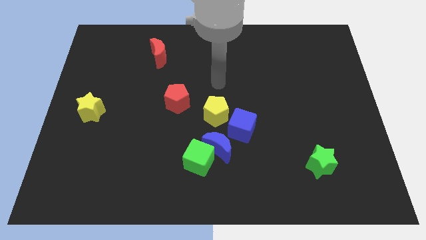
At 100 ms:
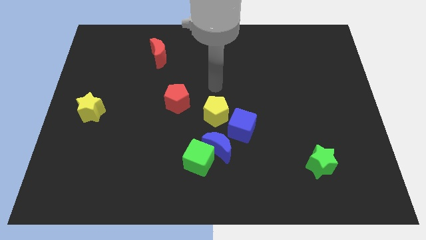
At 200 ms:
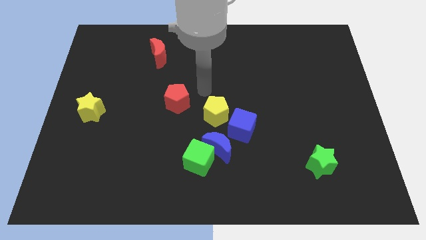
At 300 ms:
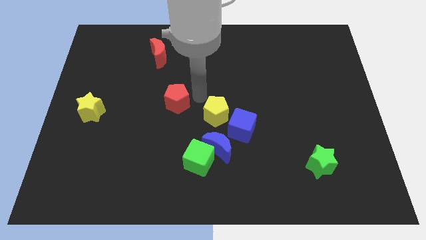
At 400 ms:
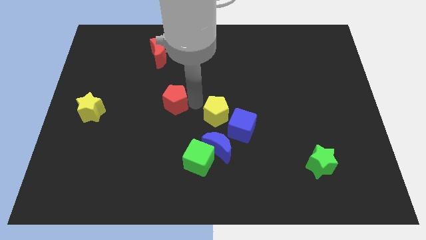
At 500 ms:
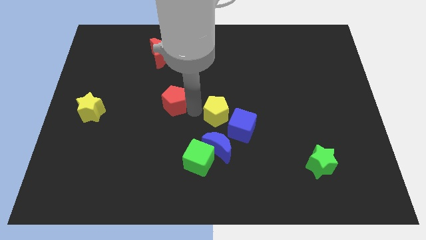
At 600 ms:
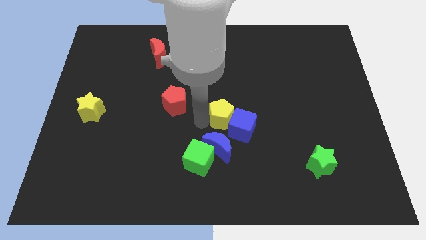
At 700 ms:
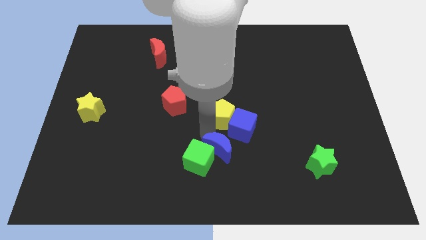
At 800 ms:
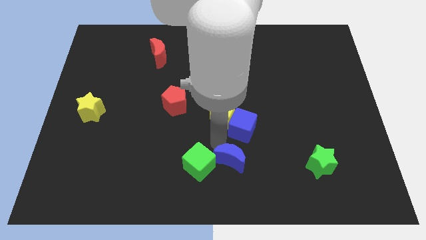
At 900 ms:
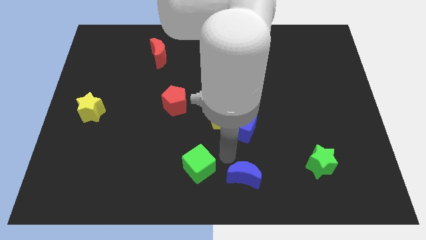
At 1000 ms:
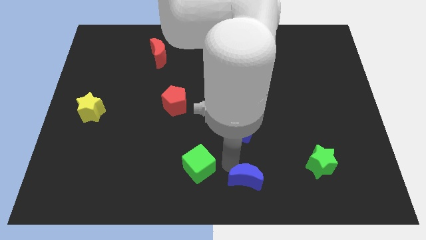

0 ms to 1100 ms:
move the green cube away from the blue moon

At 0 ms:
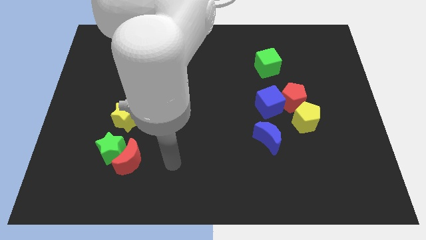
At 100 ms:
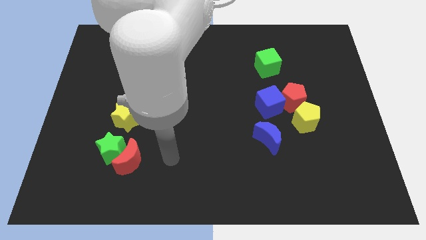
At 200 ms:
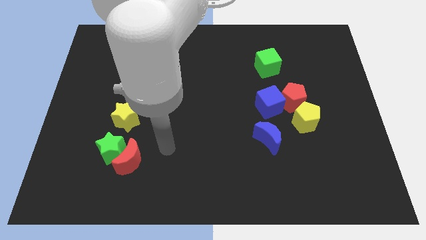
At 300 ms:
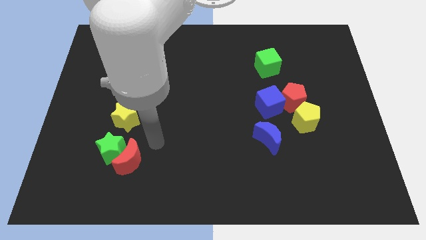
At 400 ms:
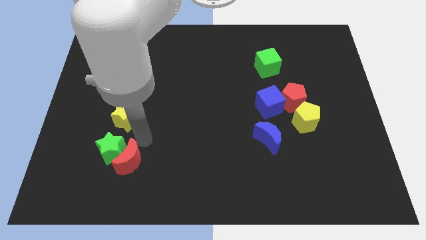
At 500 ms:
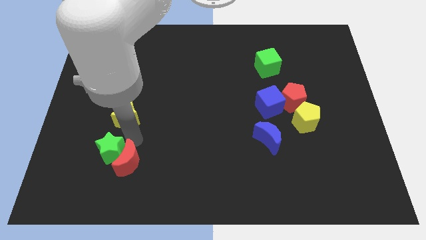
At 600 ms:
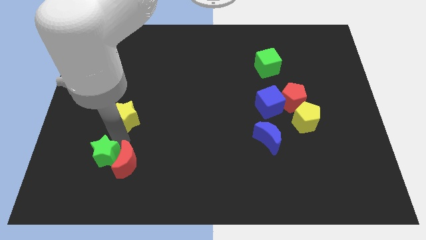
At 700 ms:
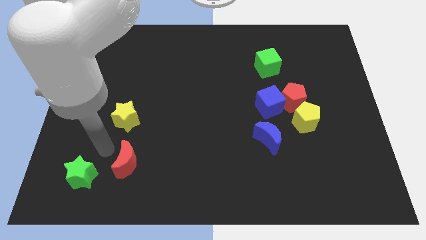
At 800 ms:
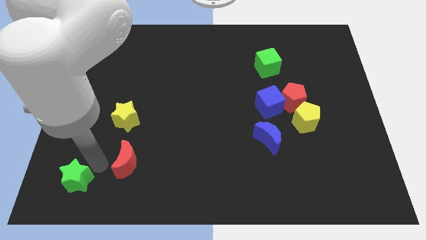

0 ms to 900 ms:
separate the red moon from the green star

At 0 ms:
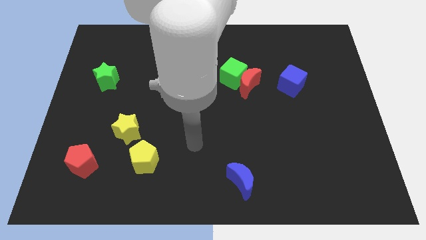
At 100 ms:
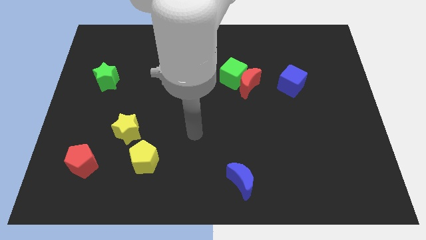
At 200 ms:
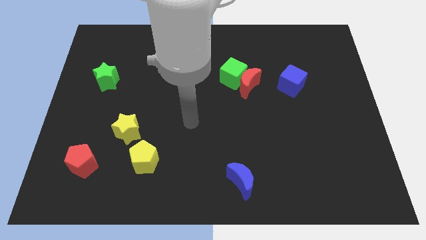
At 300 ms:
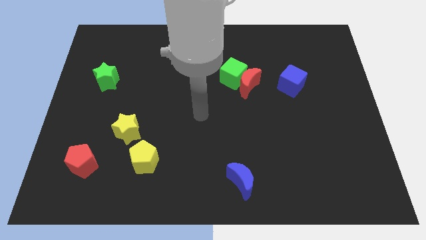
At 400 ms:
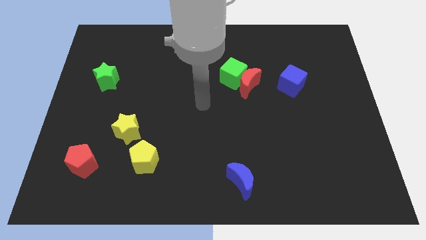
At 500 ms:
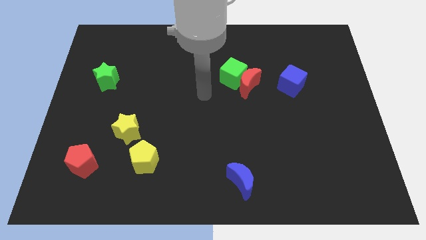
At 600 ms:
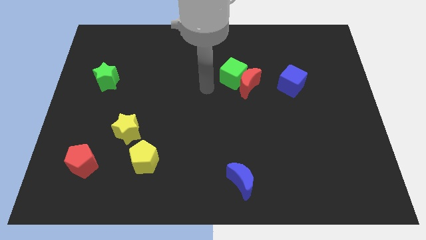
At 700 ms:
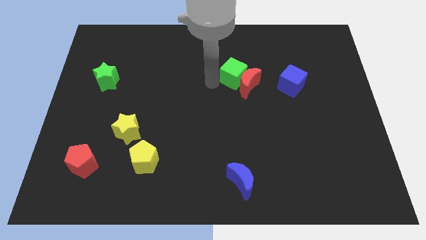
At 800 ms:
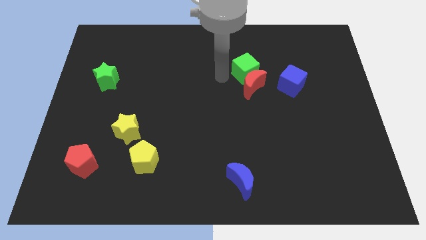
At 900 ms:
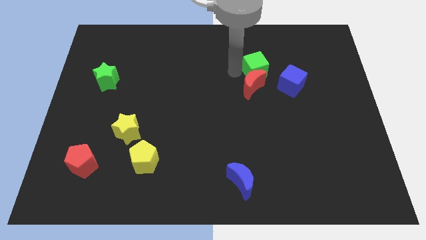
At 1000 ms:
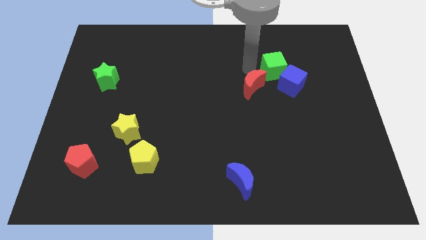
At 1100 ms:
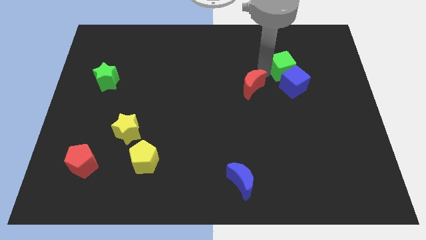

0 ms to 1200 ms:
pull the red moon apart from the green cube

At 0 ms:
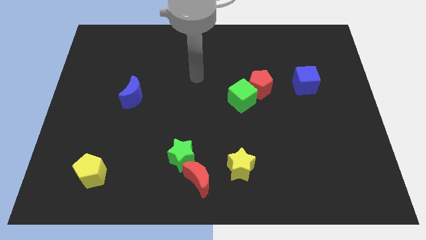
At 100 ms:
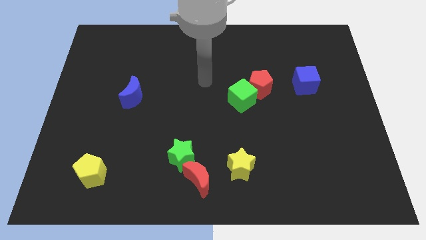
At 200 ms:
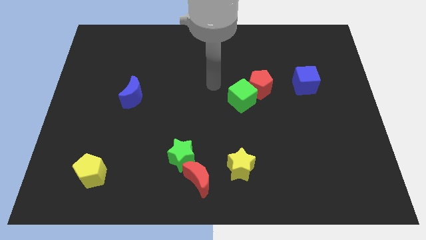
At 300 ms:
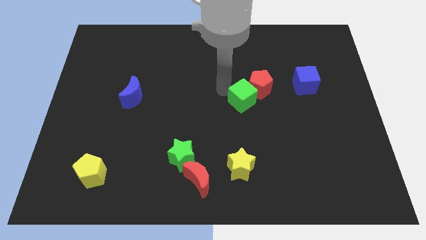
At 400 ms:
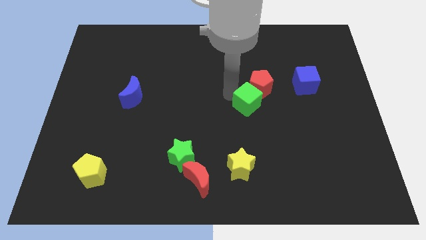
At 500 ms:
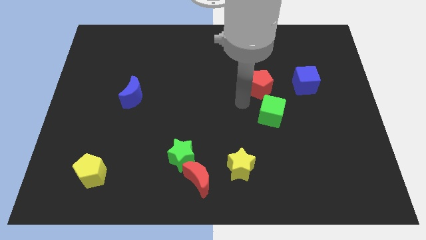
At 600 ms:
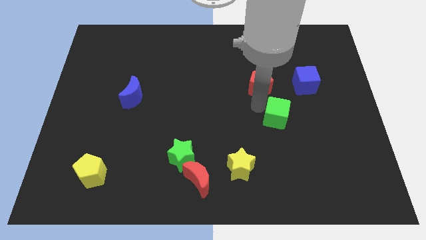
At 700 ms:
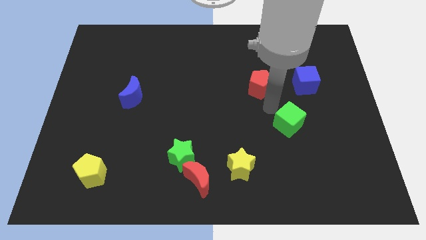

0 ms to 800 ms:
pull the red pentagon apart from the green cube

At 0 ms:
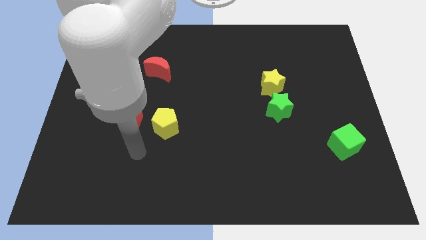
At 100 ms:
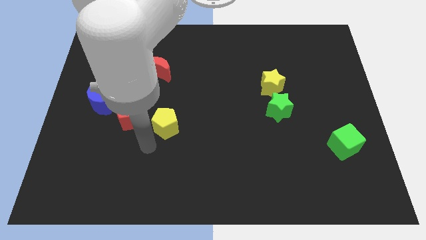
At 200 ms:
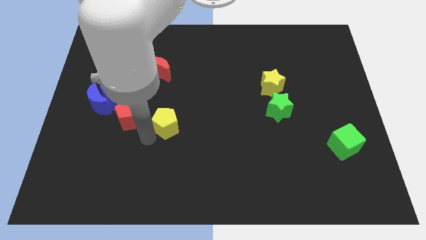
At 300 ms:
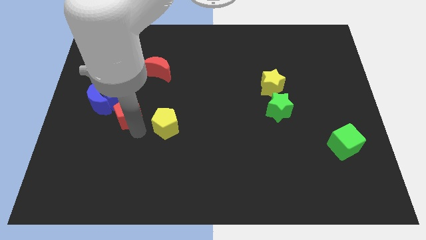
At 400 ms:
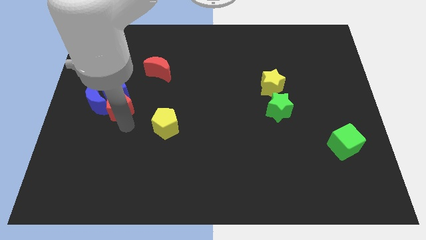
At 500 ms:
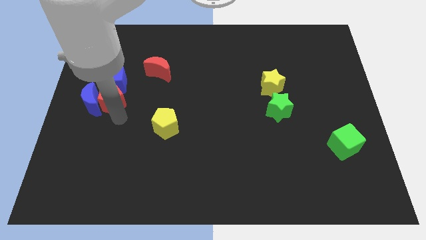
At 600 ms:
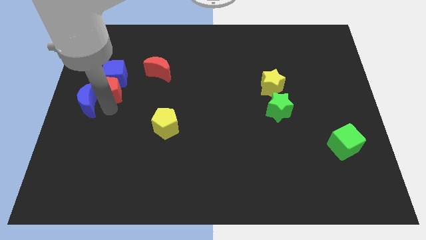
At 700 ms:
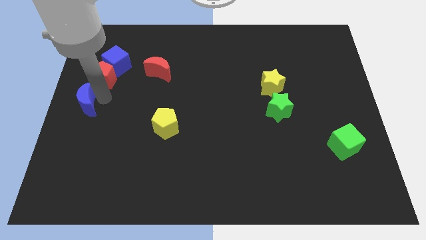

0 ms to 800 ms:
pull the blue cube apart from the blue moon and red pentagon

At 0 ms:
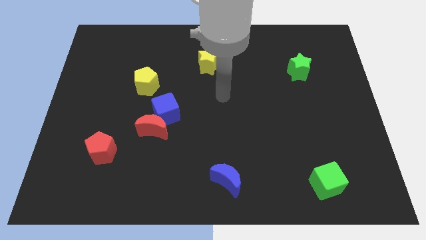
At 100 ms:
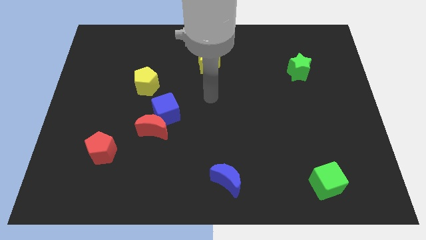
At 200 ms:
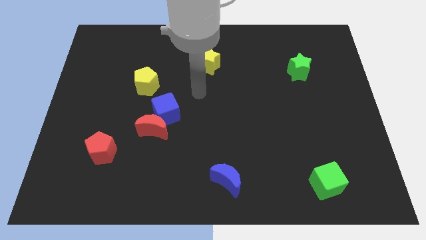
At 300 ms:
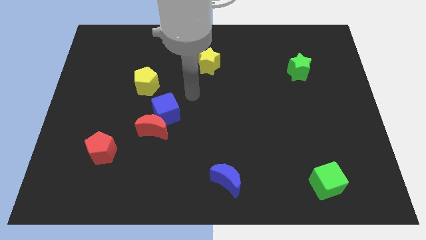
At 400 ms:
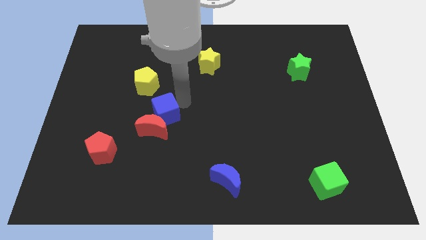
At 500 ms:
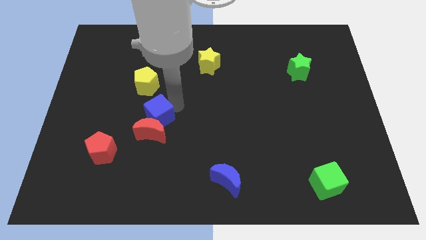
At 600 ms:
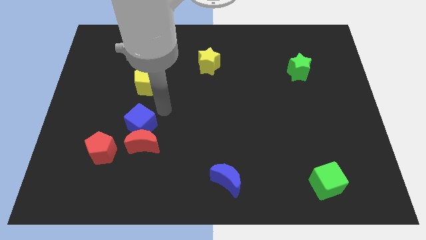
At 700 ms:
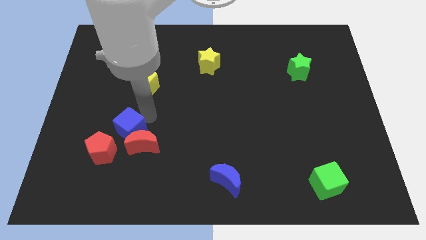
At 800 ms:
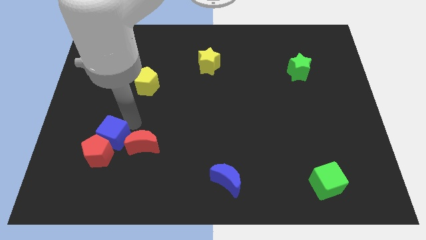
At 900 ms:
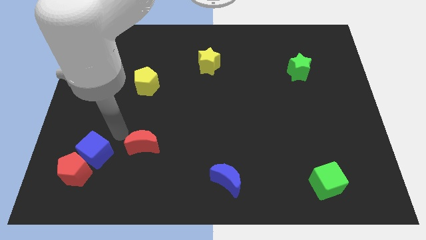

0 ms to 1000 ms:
move the red moon away from the blue cube

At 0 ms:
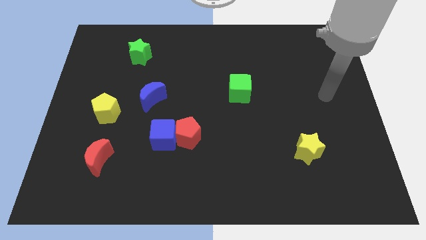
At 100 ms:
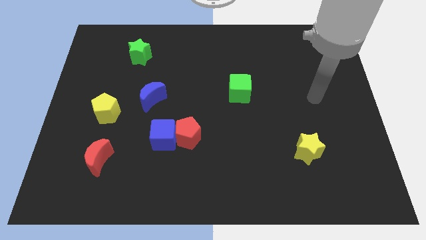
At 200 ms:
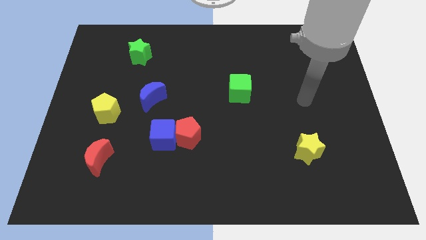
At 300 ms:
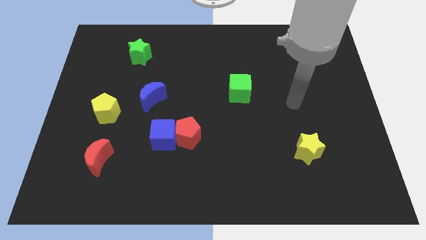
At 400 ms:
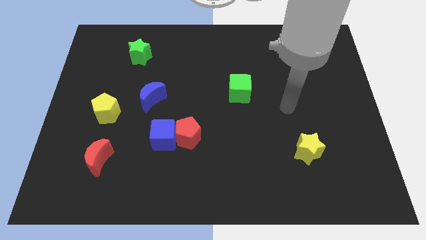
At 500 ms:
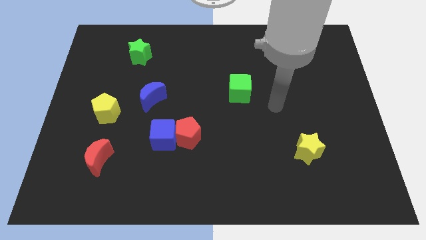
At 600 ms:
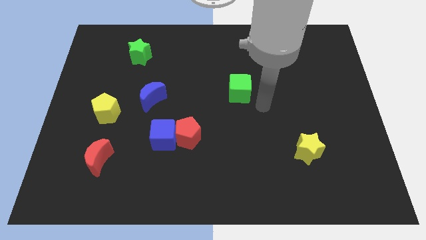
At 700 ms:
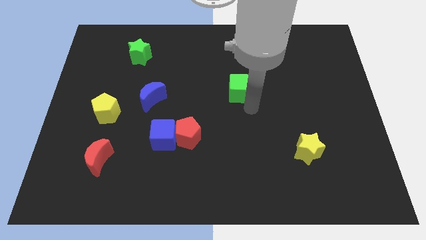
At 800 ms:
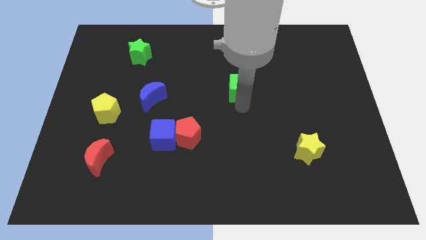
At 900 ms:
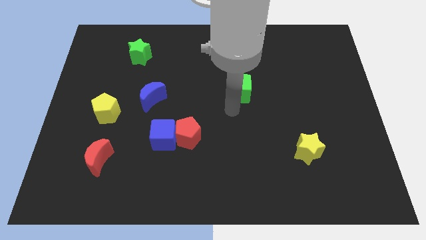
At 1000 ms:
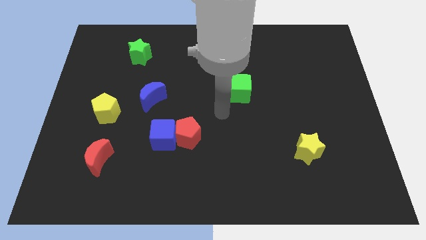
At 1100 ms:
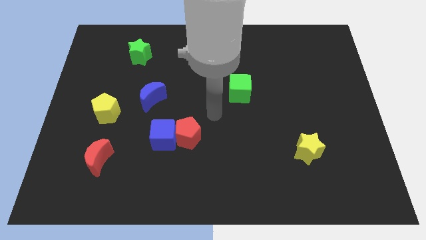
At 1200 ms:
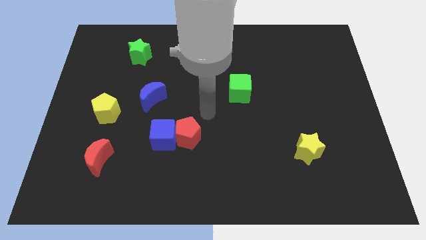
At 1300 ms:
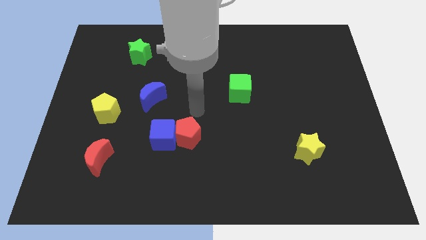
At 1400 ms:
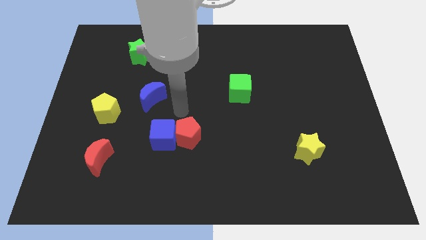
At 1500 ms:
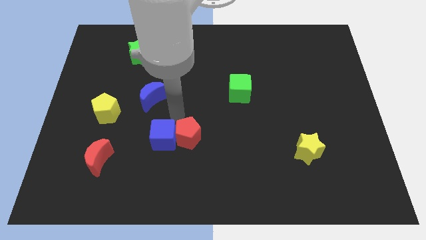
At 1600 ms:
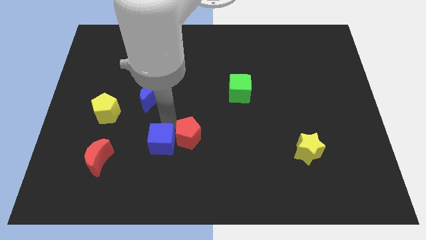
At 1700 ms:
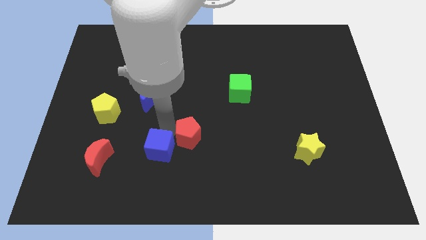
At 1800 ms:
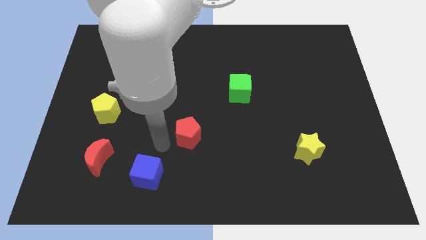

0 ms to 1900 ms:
pull the red pentagon apart from the blue cube

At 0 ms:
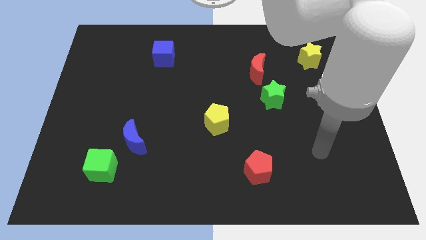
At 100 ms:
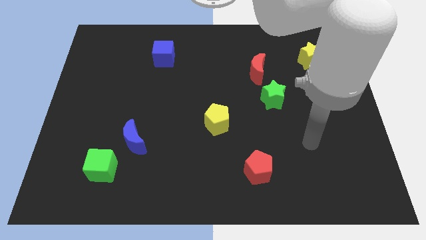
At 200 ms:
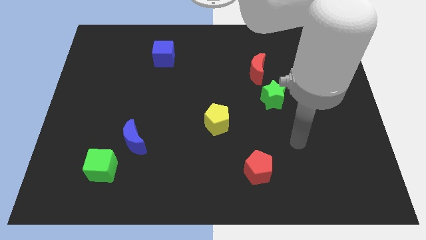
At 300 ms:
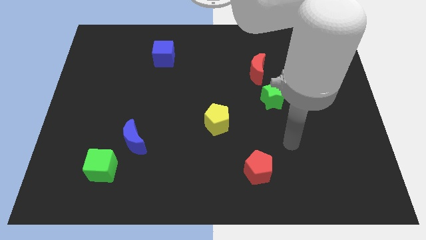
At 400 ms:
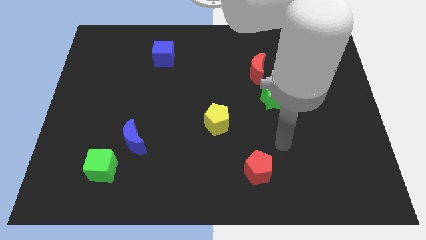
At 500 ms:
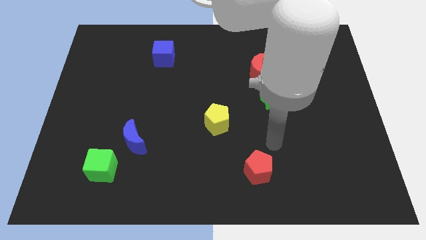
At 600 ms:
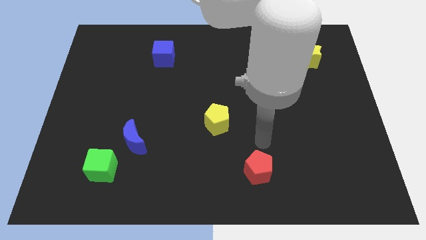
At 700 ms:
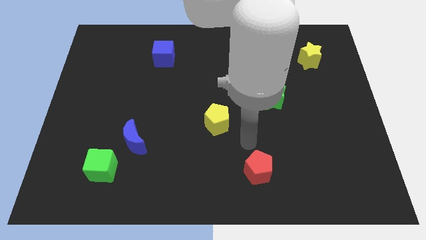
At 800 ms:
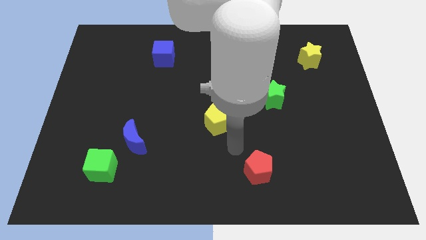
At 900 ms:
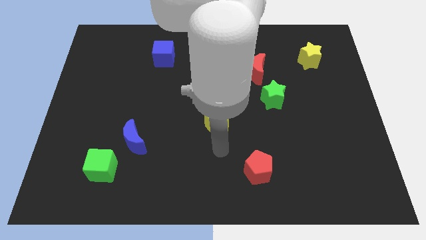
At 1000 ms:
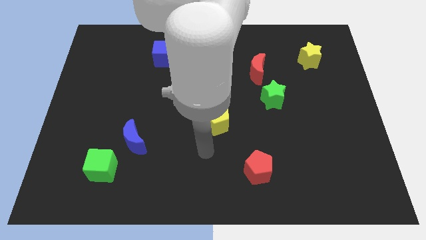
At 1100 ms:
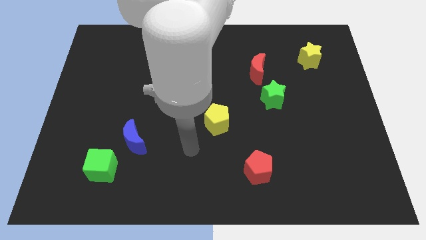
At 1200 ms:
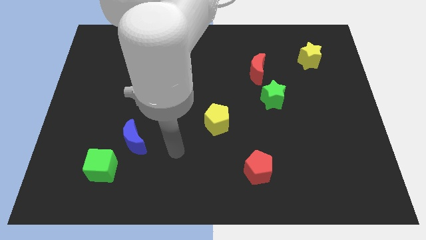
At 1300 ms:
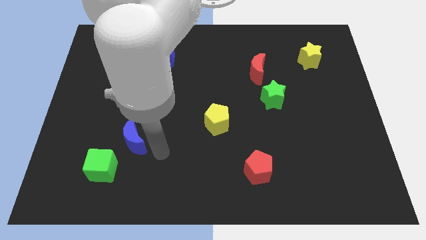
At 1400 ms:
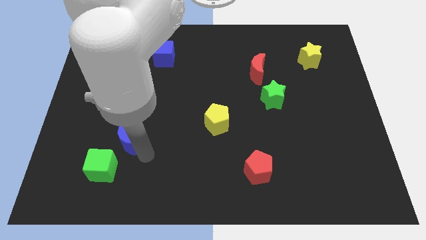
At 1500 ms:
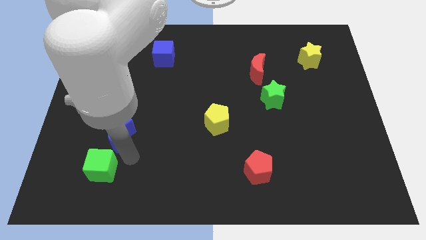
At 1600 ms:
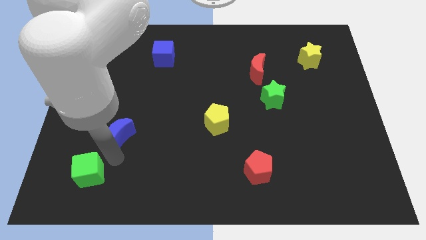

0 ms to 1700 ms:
separate the blue moon from the green cube
